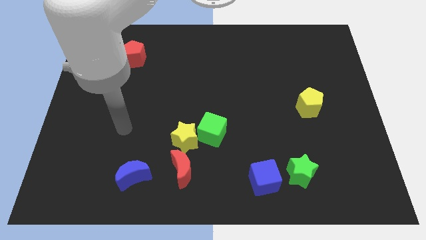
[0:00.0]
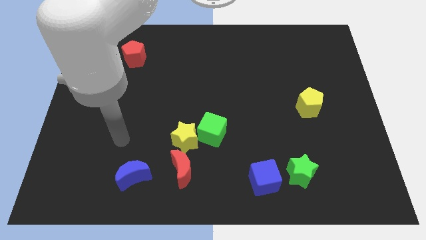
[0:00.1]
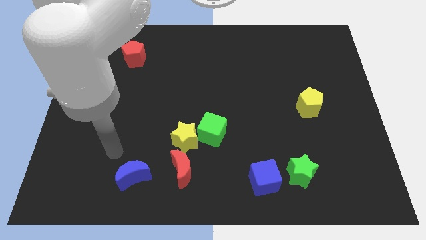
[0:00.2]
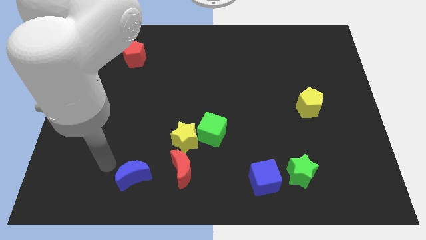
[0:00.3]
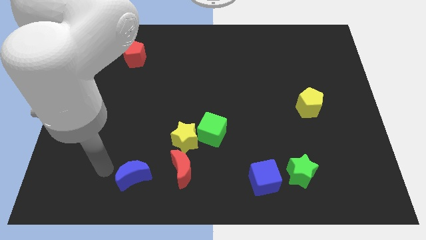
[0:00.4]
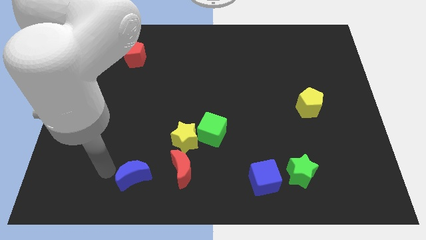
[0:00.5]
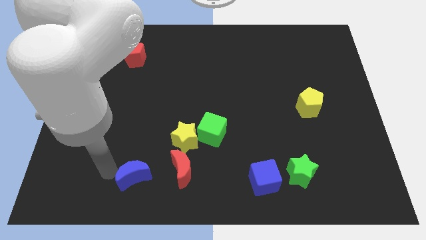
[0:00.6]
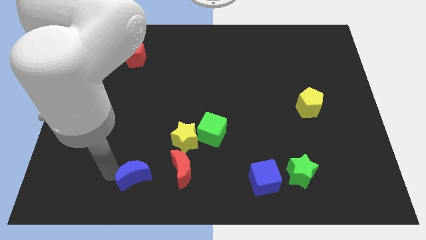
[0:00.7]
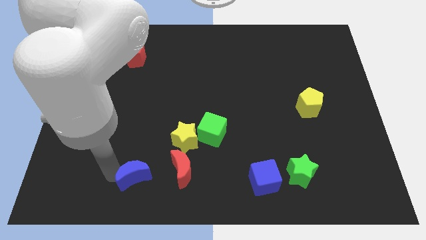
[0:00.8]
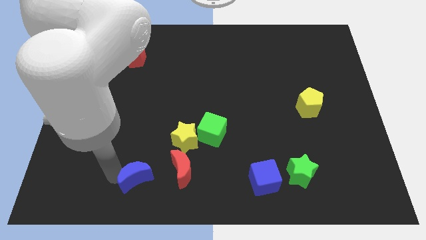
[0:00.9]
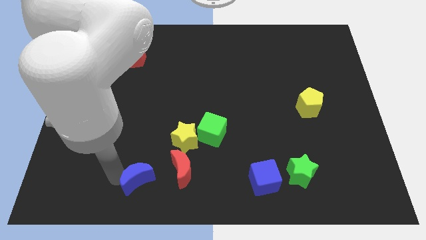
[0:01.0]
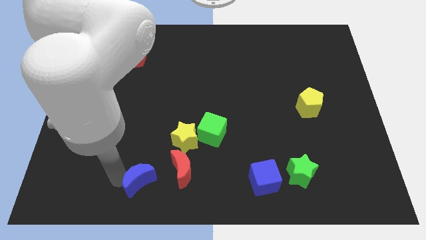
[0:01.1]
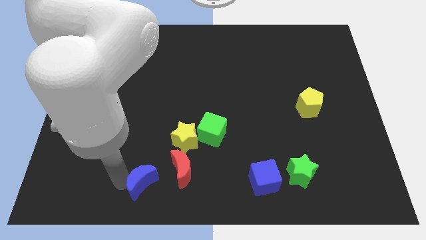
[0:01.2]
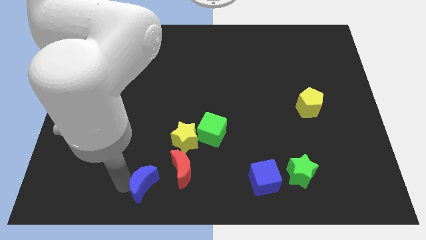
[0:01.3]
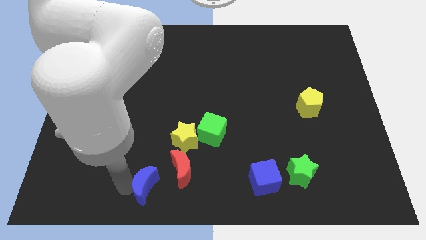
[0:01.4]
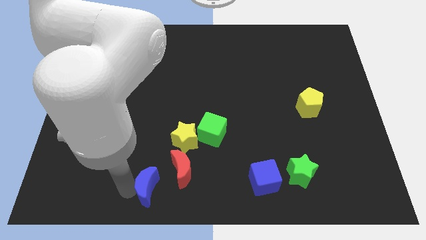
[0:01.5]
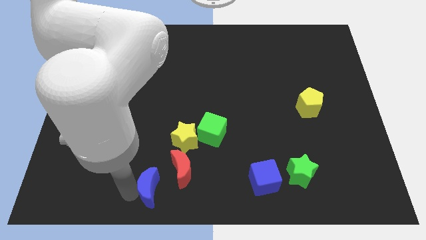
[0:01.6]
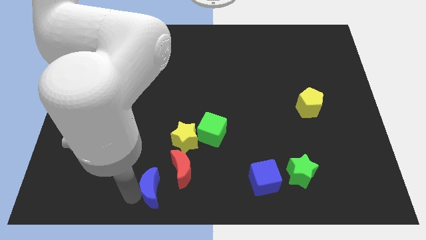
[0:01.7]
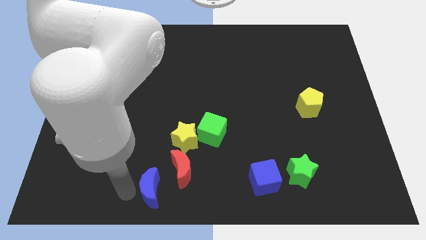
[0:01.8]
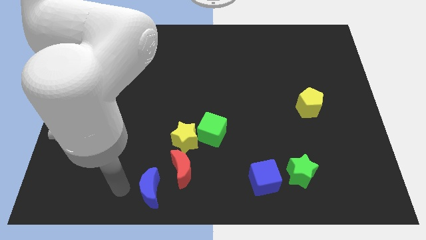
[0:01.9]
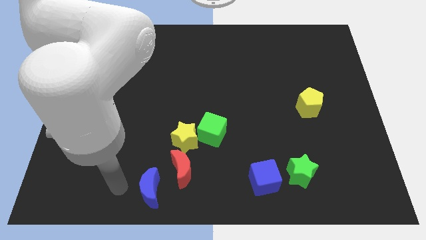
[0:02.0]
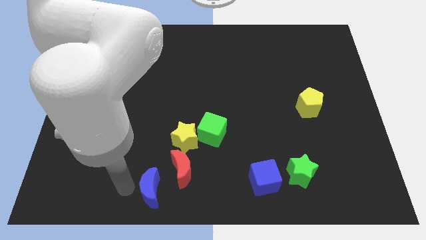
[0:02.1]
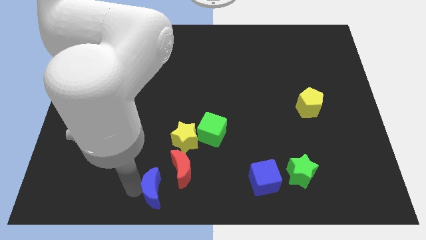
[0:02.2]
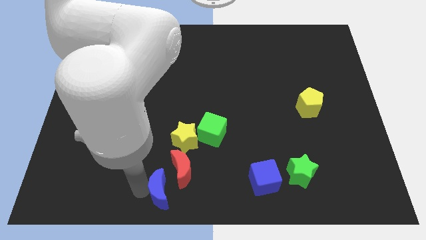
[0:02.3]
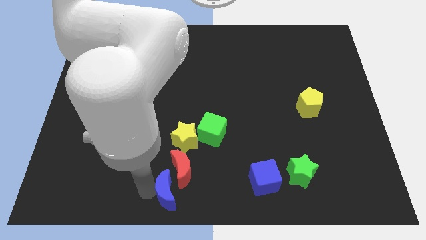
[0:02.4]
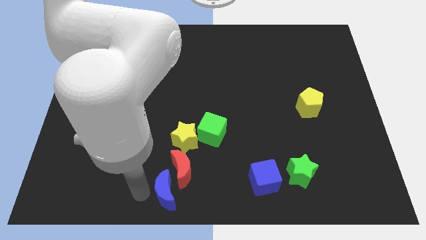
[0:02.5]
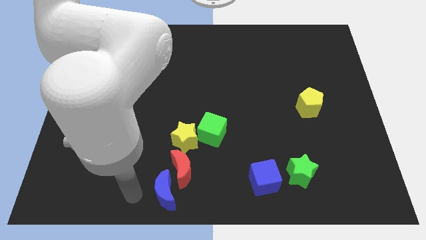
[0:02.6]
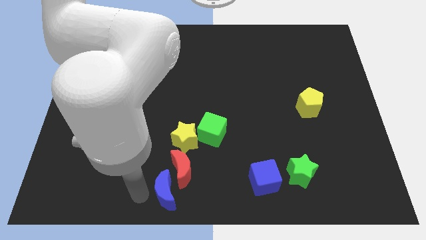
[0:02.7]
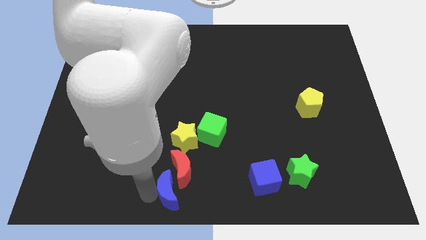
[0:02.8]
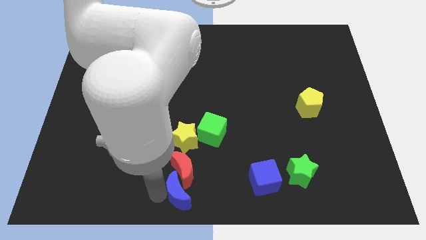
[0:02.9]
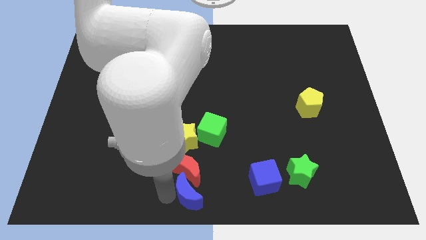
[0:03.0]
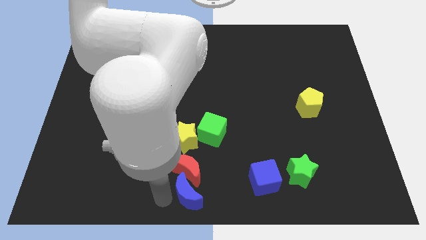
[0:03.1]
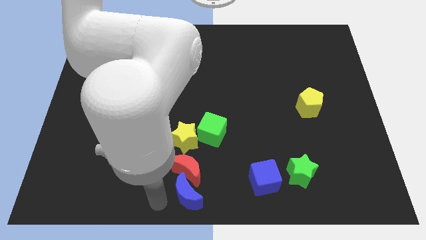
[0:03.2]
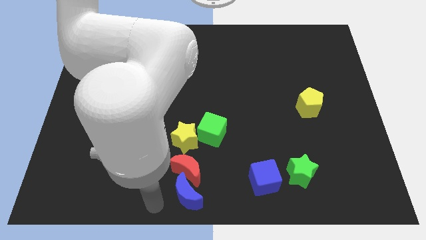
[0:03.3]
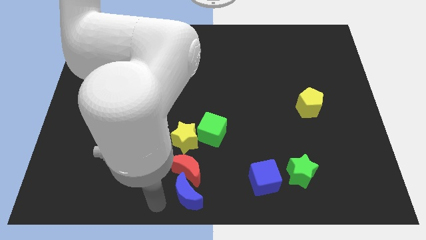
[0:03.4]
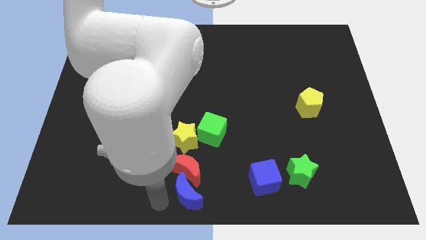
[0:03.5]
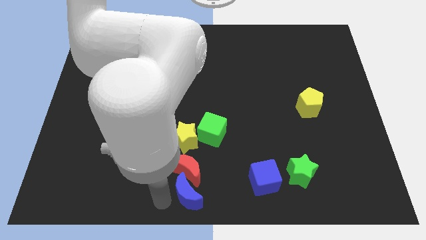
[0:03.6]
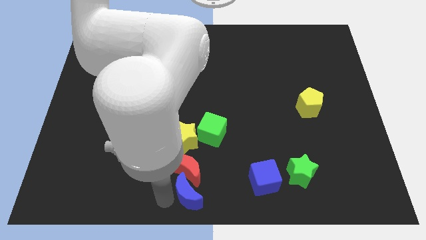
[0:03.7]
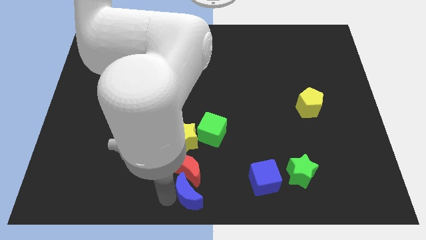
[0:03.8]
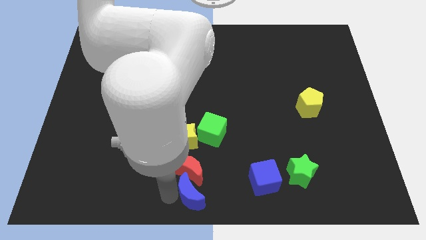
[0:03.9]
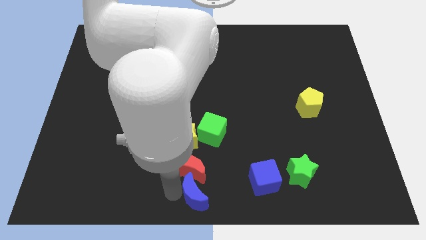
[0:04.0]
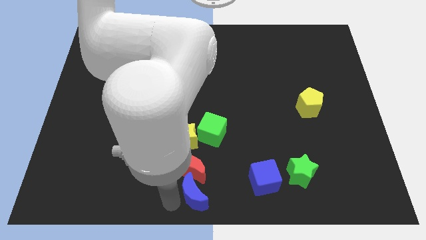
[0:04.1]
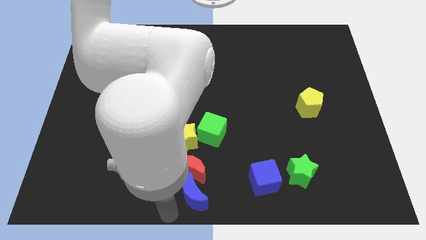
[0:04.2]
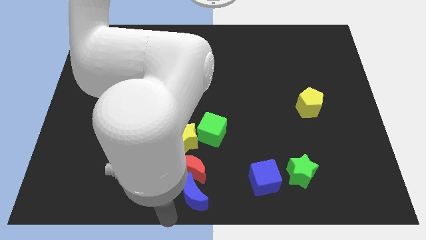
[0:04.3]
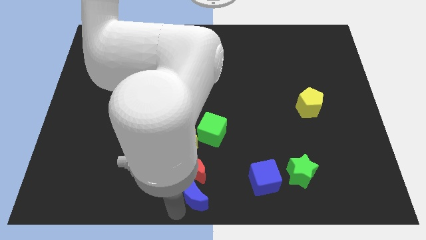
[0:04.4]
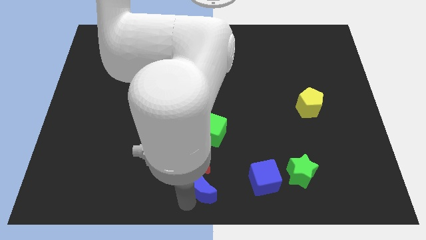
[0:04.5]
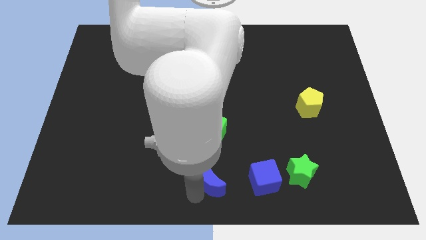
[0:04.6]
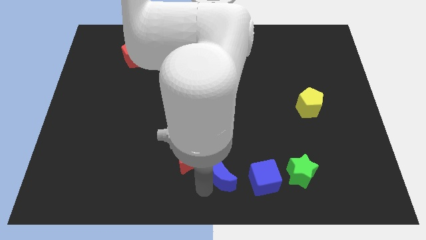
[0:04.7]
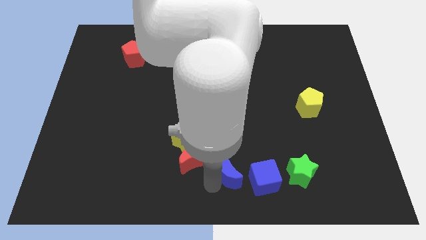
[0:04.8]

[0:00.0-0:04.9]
push the blue moon to the top left of the blue cube

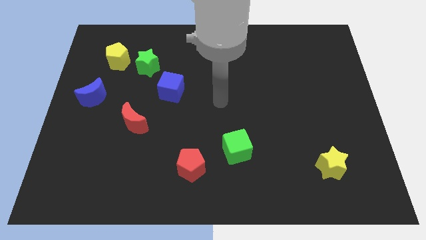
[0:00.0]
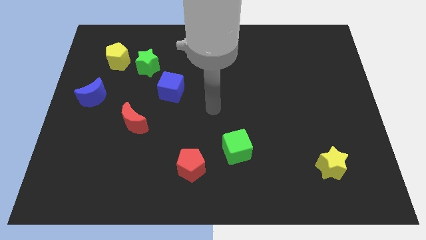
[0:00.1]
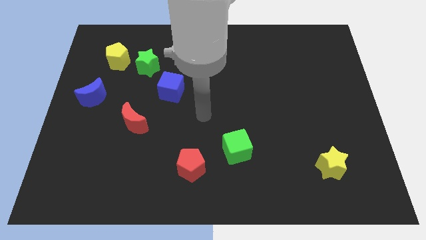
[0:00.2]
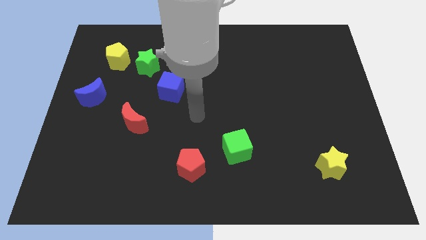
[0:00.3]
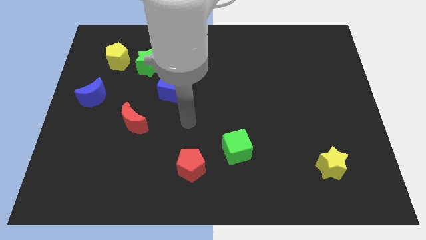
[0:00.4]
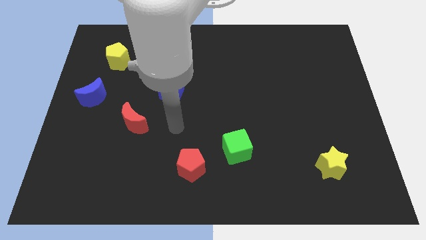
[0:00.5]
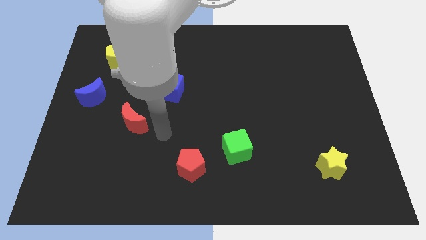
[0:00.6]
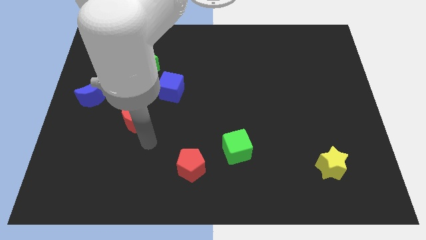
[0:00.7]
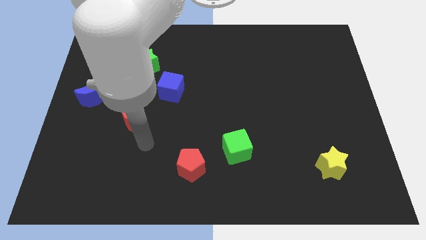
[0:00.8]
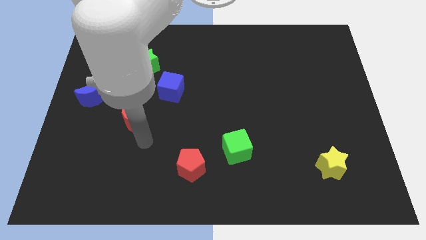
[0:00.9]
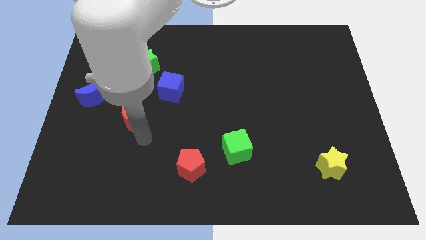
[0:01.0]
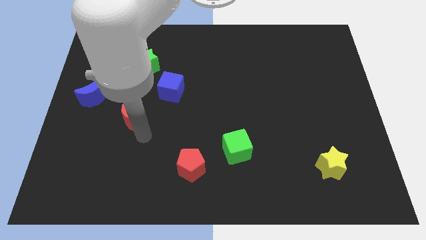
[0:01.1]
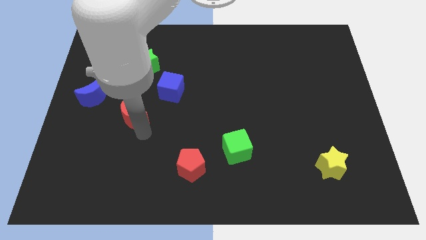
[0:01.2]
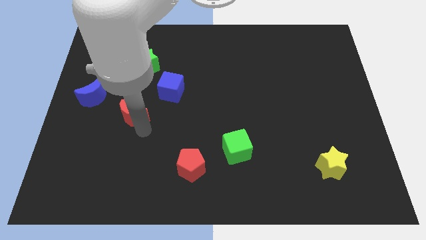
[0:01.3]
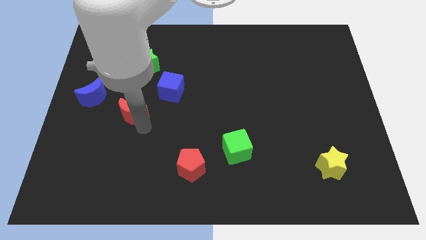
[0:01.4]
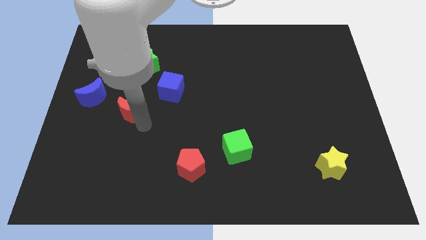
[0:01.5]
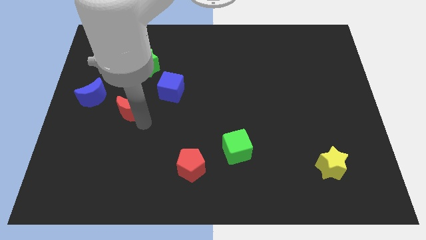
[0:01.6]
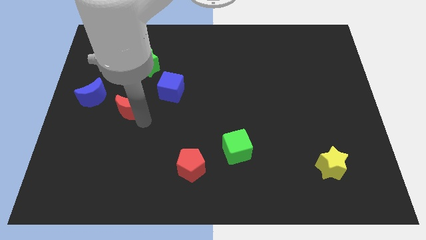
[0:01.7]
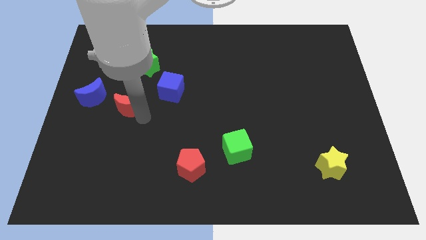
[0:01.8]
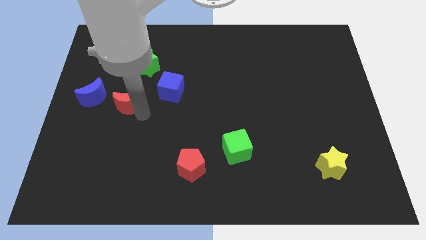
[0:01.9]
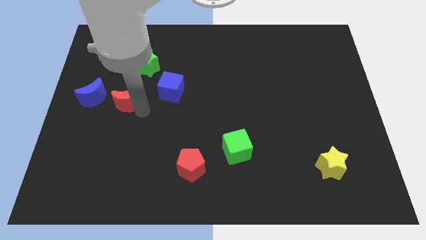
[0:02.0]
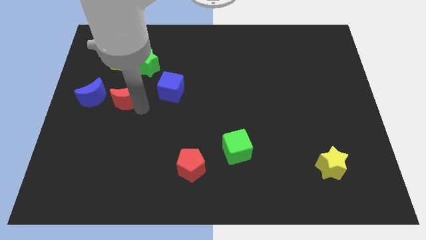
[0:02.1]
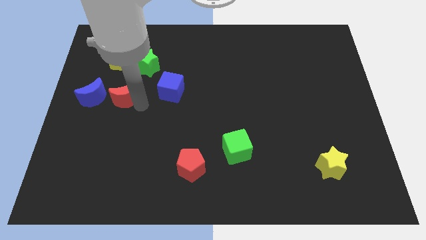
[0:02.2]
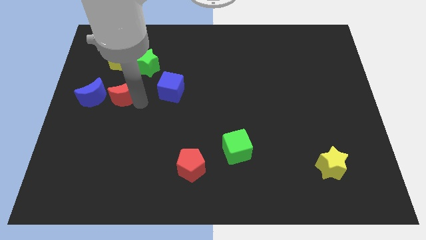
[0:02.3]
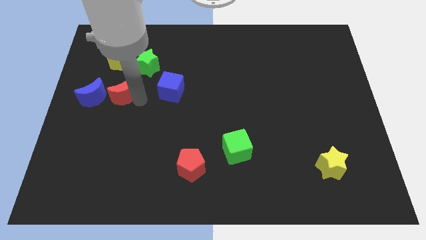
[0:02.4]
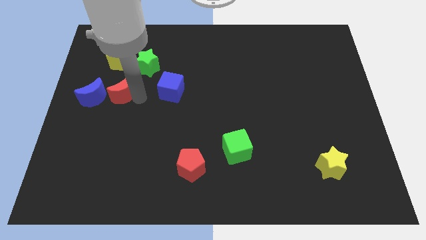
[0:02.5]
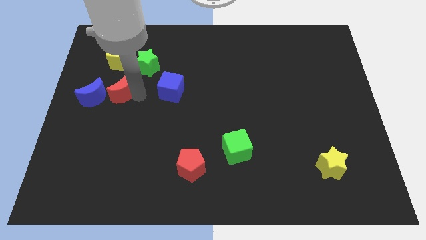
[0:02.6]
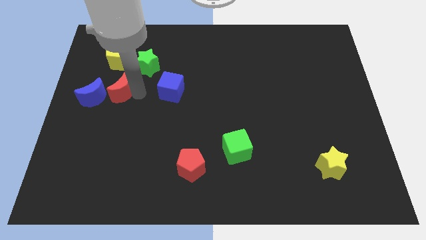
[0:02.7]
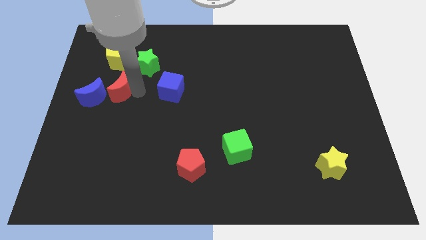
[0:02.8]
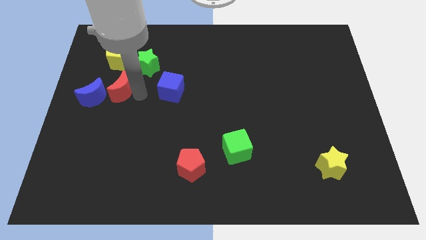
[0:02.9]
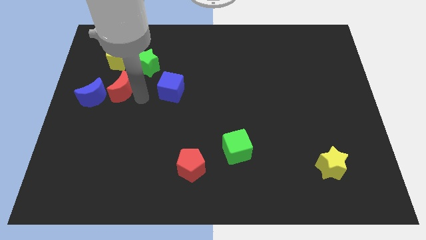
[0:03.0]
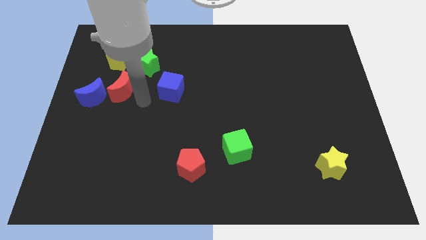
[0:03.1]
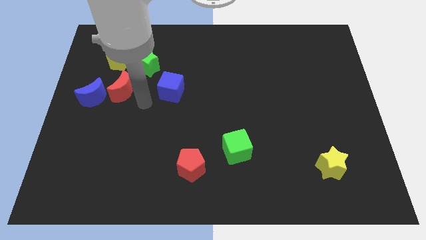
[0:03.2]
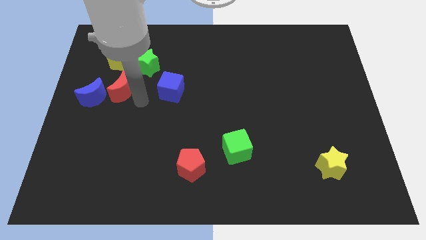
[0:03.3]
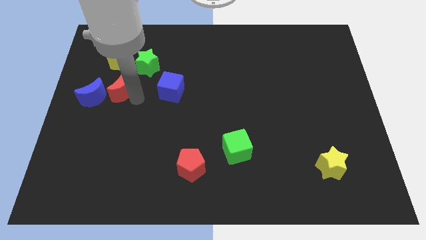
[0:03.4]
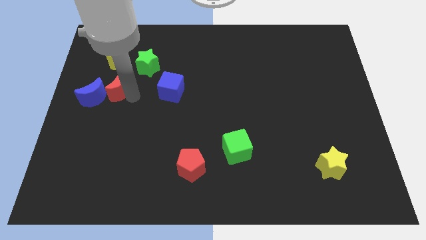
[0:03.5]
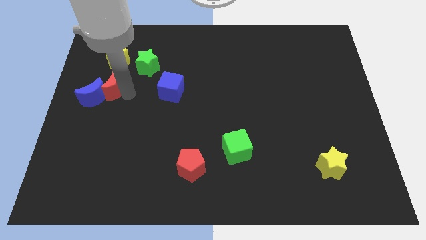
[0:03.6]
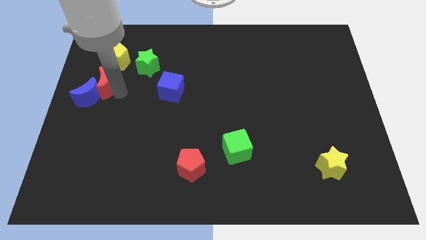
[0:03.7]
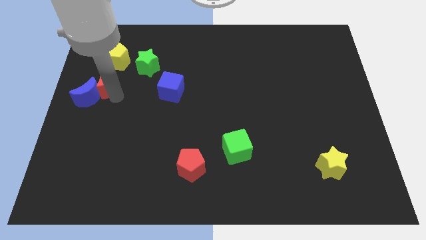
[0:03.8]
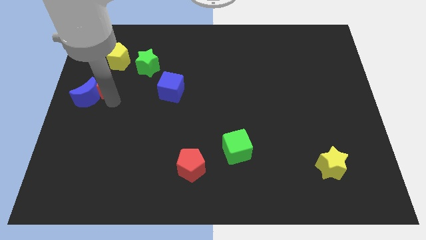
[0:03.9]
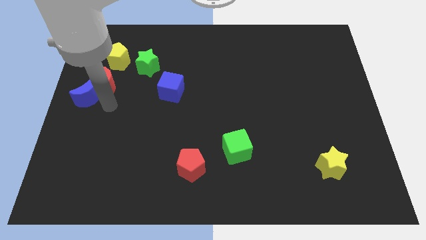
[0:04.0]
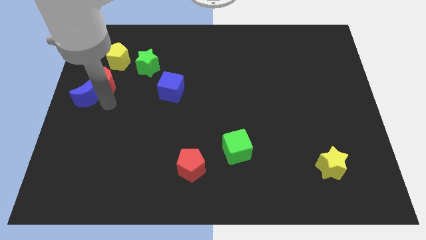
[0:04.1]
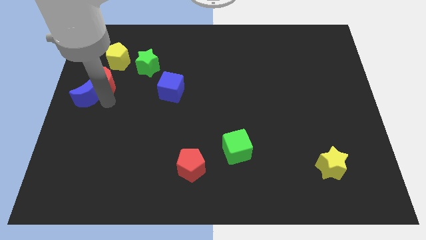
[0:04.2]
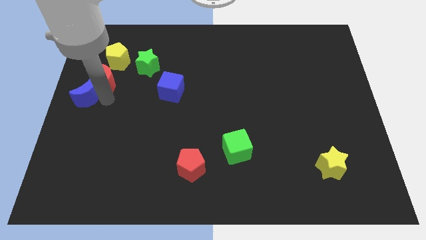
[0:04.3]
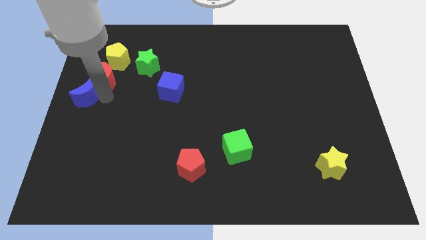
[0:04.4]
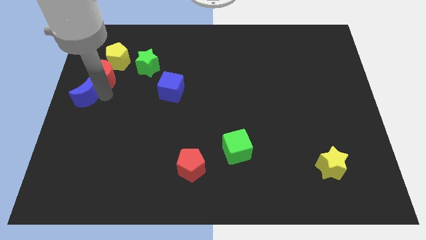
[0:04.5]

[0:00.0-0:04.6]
push the red moon to the left side of the green star
